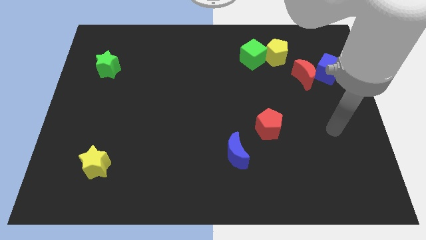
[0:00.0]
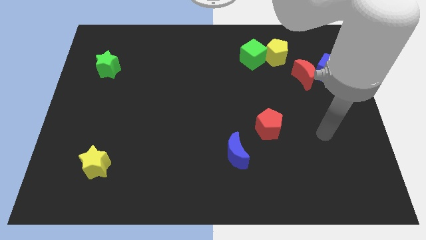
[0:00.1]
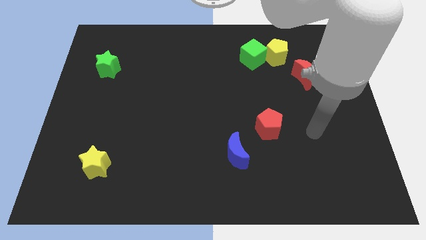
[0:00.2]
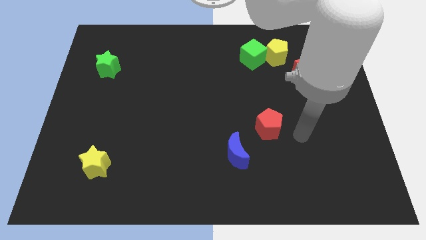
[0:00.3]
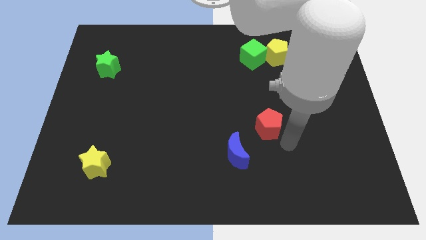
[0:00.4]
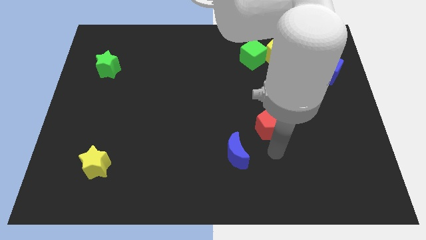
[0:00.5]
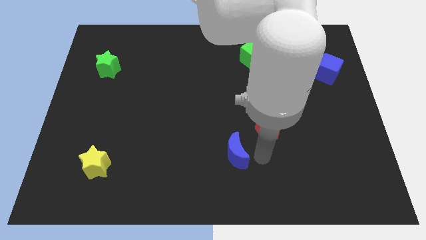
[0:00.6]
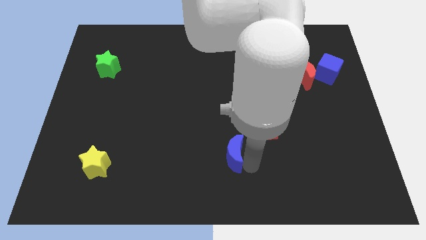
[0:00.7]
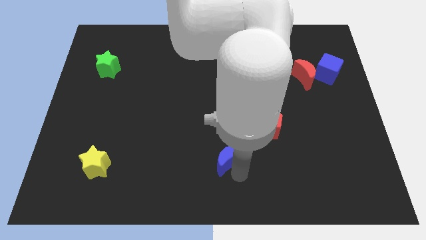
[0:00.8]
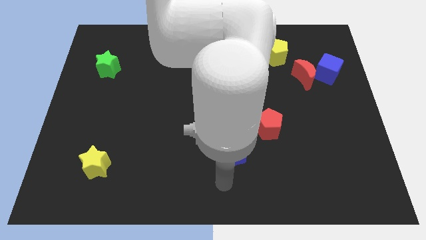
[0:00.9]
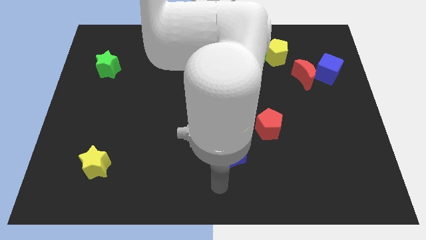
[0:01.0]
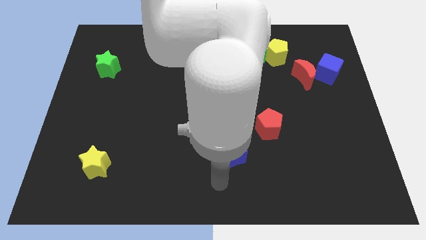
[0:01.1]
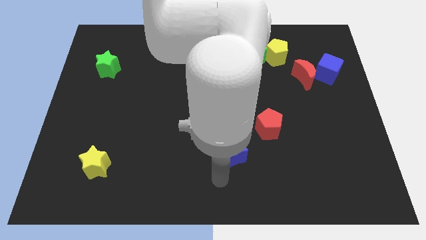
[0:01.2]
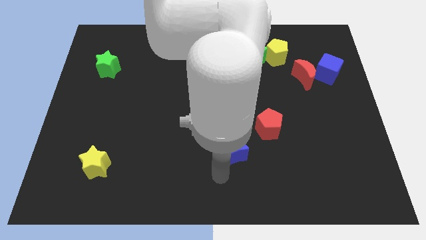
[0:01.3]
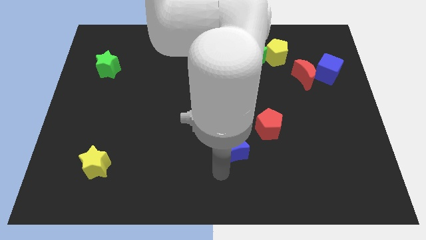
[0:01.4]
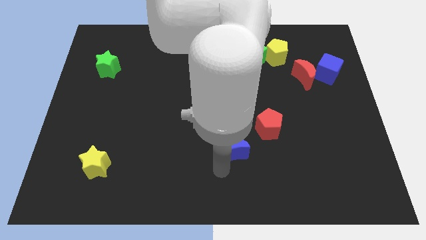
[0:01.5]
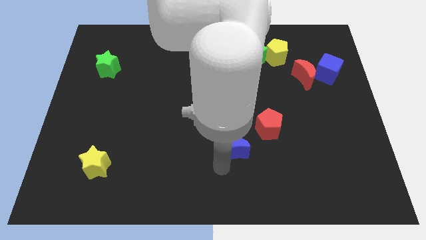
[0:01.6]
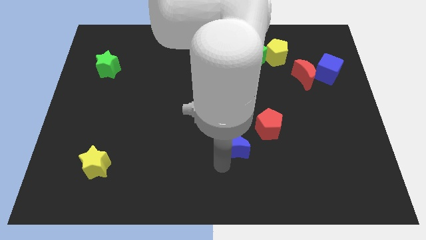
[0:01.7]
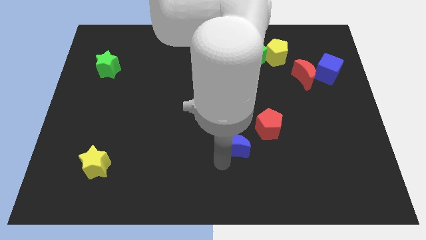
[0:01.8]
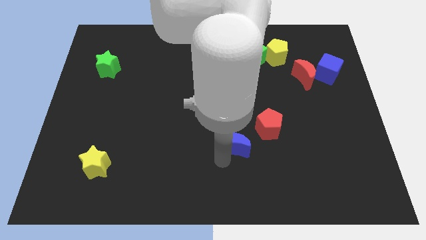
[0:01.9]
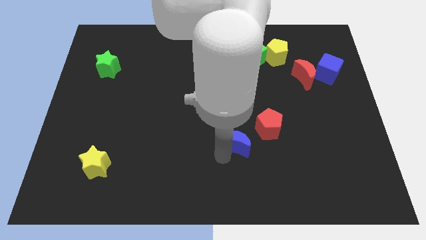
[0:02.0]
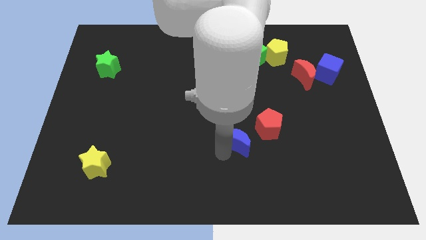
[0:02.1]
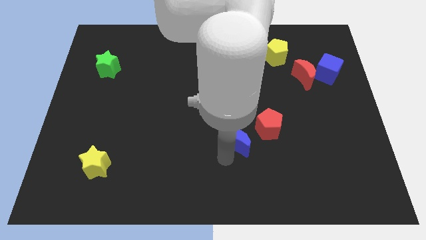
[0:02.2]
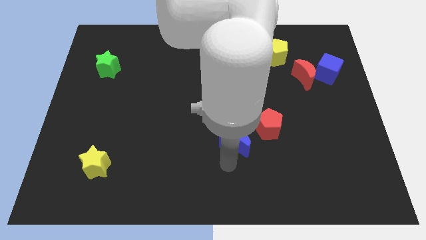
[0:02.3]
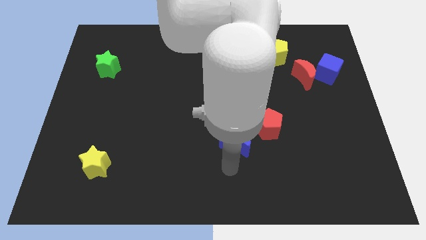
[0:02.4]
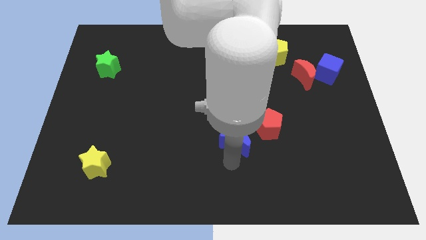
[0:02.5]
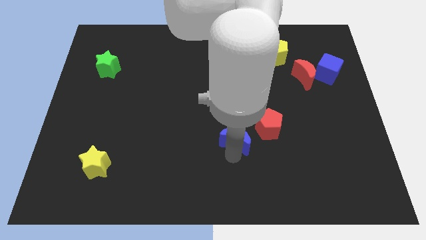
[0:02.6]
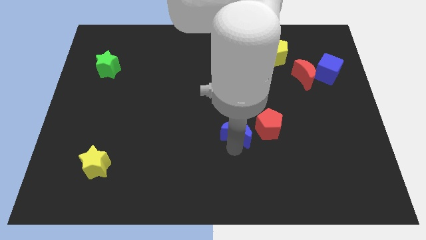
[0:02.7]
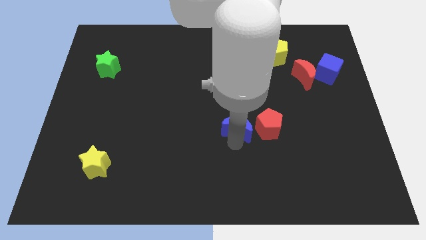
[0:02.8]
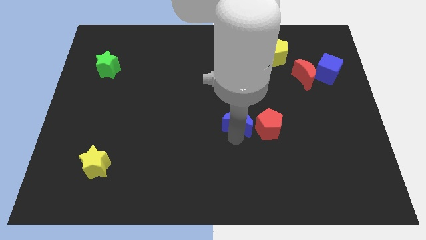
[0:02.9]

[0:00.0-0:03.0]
move the blue moon a little upwards

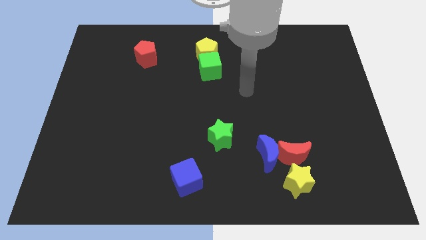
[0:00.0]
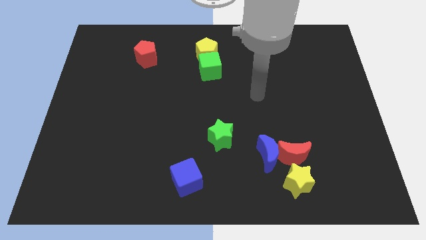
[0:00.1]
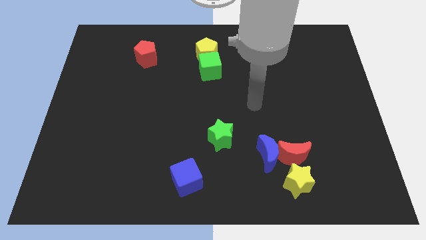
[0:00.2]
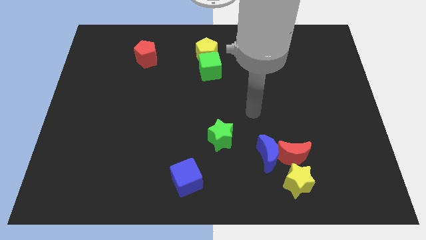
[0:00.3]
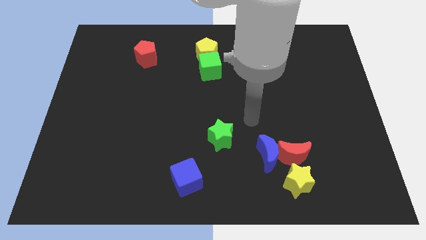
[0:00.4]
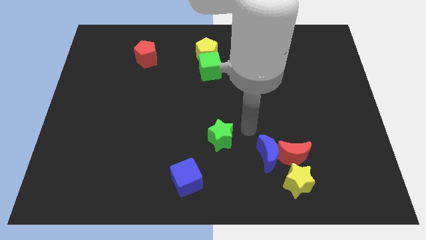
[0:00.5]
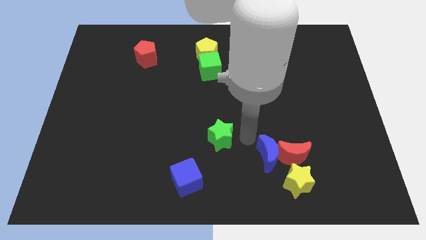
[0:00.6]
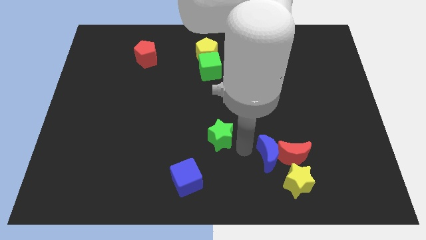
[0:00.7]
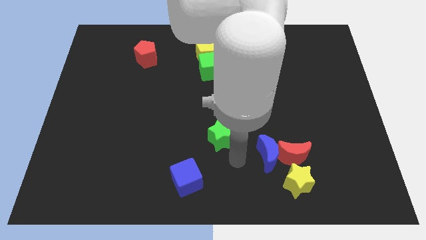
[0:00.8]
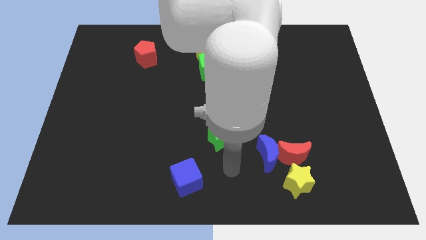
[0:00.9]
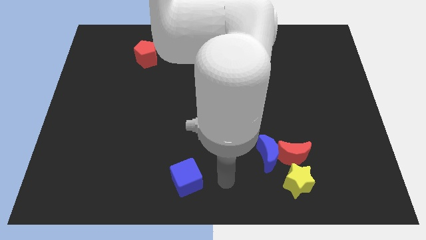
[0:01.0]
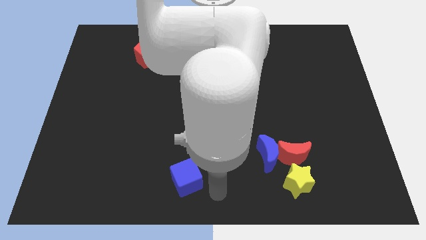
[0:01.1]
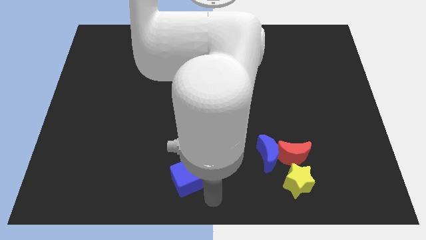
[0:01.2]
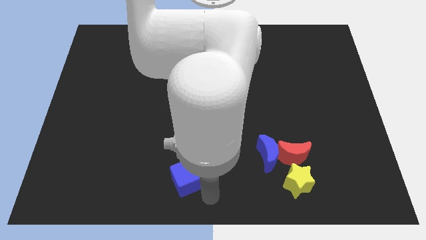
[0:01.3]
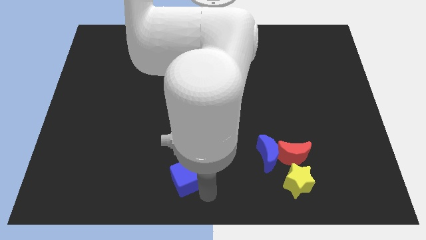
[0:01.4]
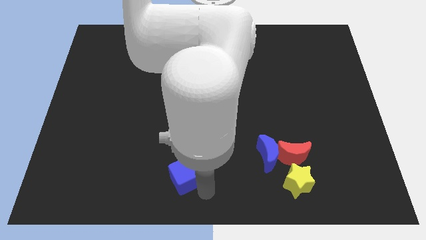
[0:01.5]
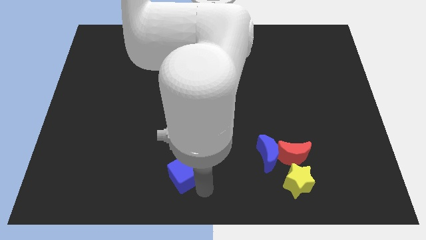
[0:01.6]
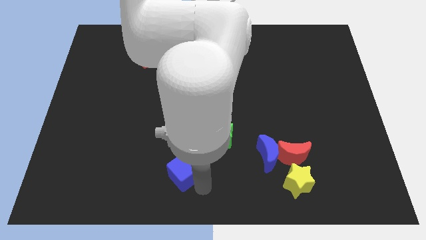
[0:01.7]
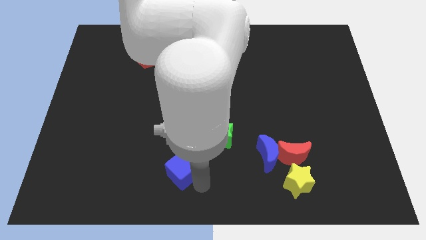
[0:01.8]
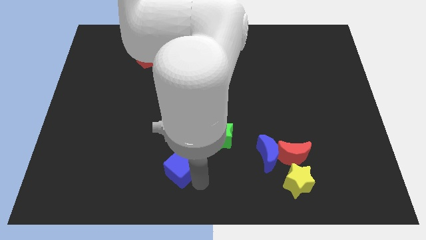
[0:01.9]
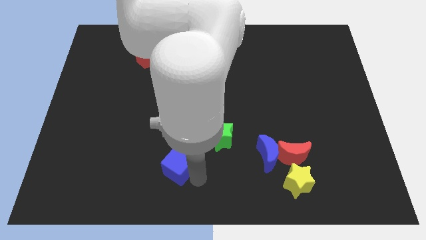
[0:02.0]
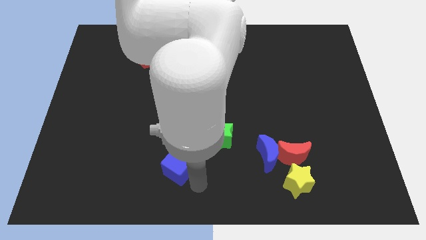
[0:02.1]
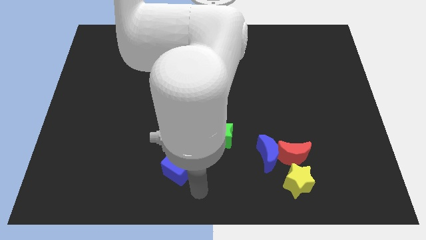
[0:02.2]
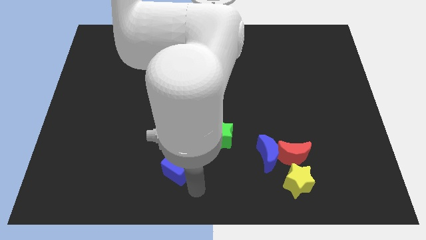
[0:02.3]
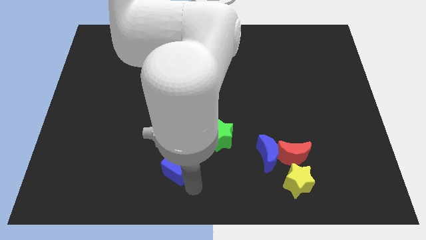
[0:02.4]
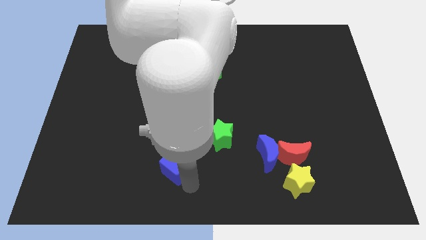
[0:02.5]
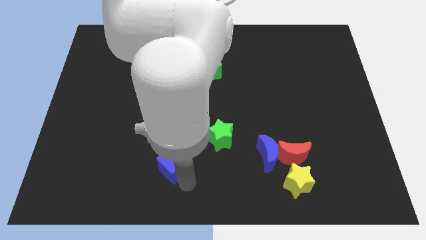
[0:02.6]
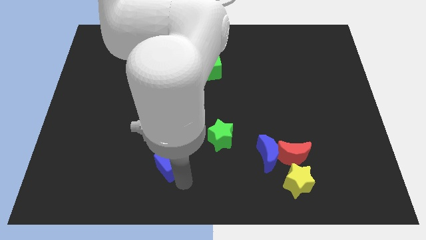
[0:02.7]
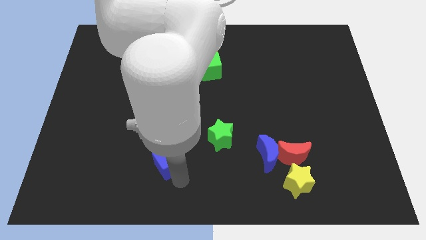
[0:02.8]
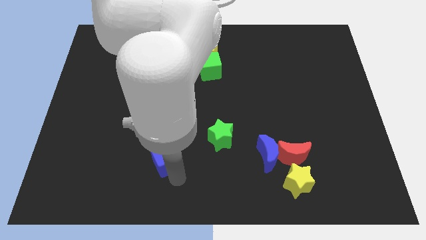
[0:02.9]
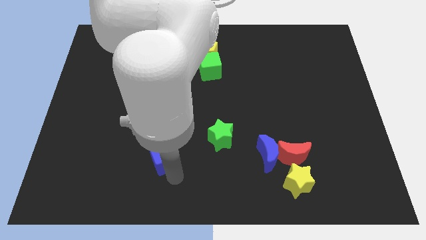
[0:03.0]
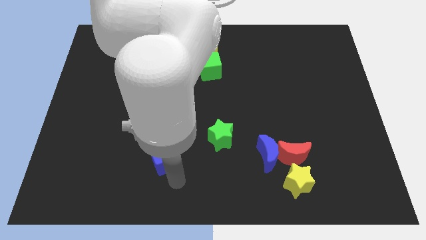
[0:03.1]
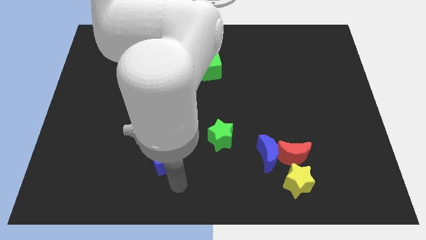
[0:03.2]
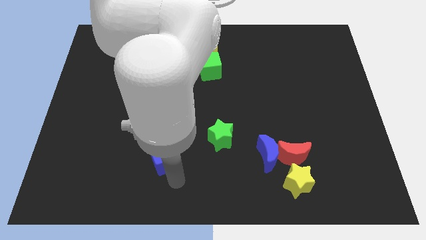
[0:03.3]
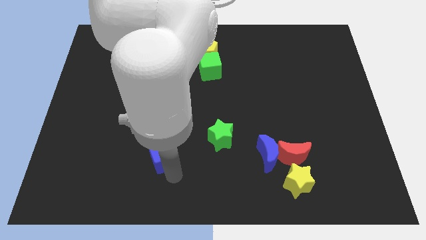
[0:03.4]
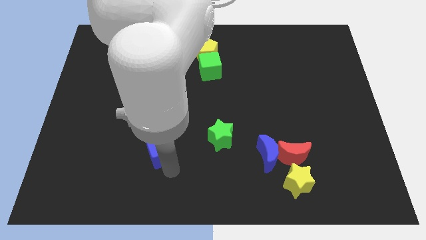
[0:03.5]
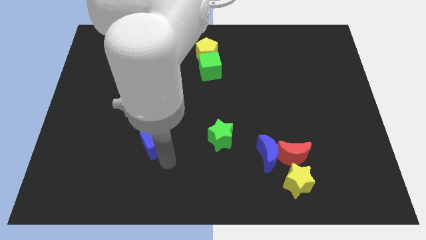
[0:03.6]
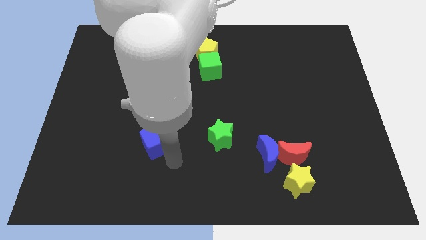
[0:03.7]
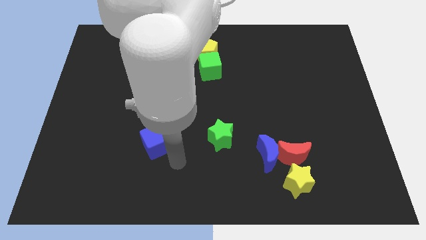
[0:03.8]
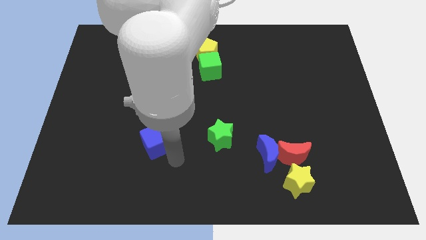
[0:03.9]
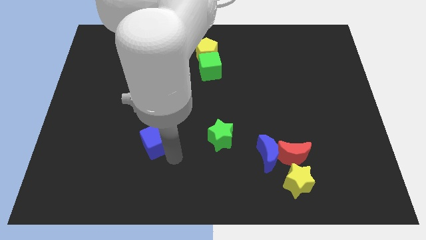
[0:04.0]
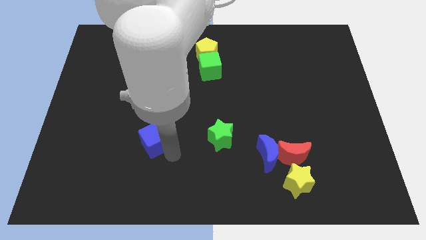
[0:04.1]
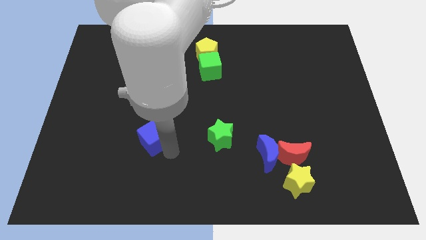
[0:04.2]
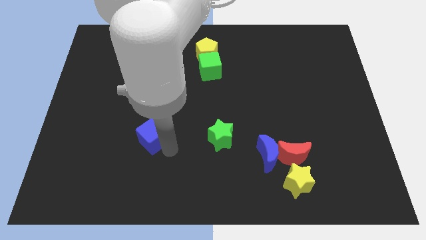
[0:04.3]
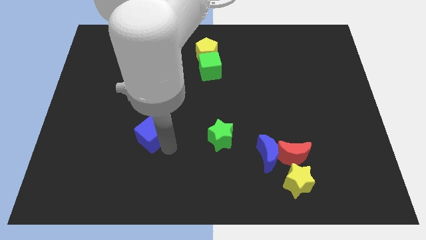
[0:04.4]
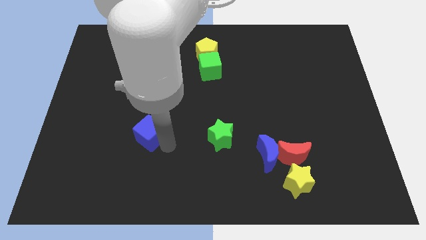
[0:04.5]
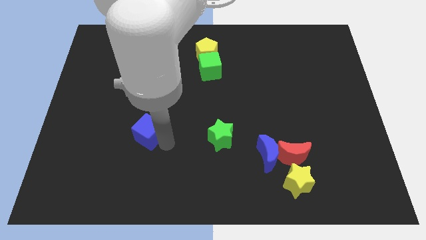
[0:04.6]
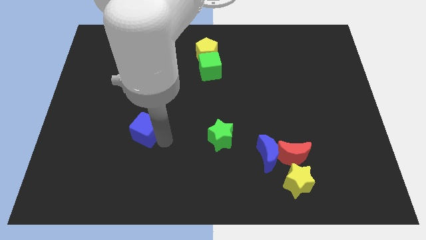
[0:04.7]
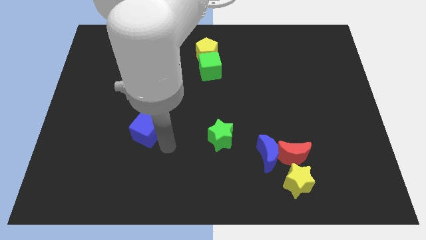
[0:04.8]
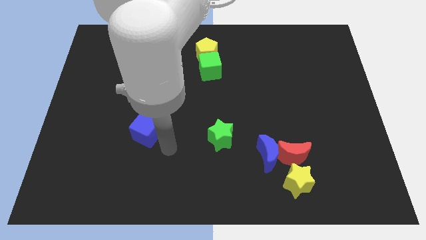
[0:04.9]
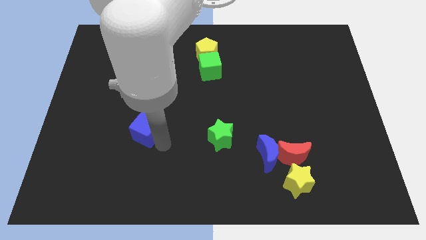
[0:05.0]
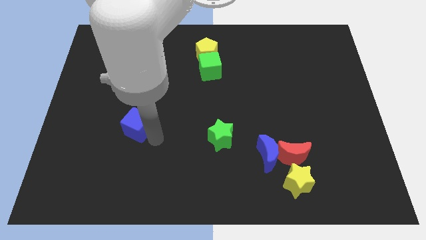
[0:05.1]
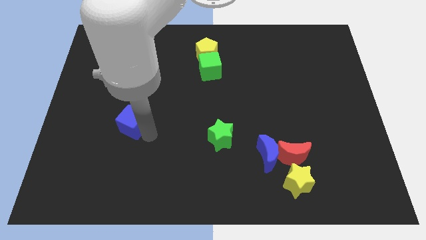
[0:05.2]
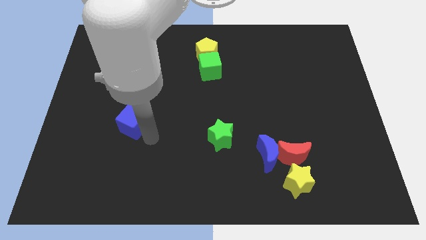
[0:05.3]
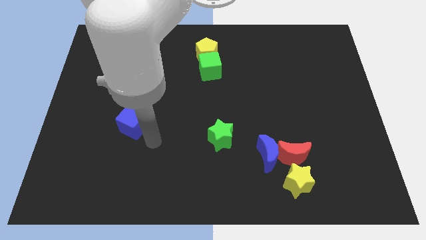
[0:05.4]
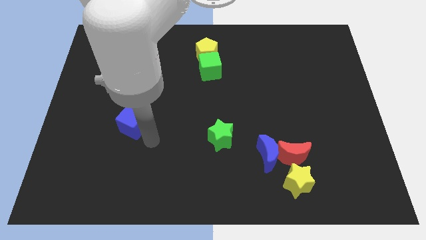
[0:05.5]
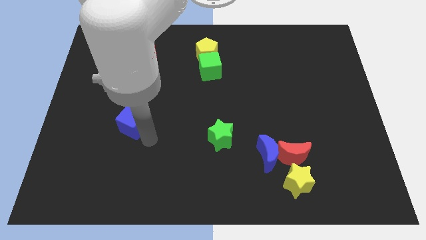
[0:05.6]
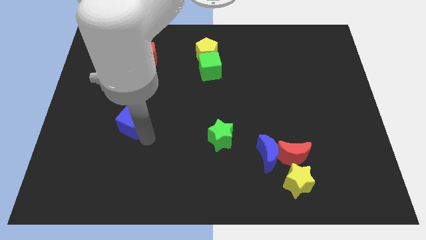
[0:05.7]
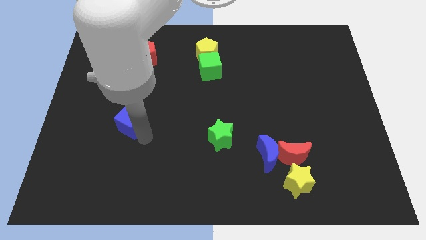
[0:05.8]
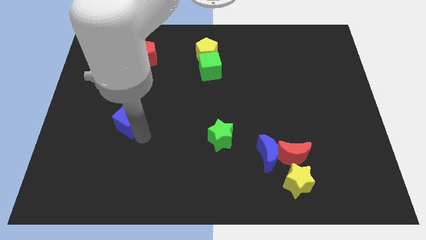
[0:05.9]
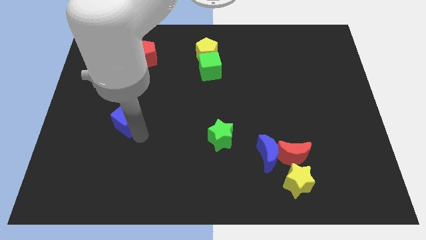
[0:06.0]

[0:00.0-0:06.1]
move the blue cube up and then left
